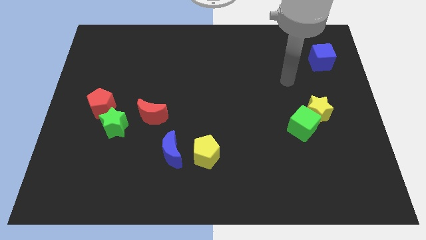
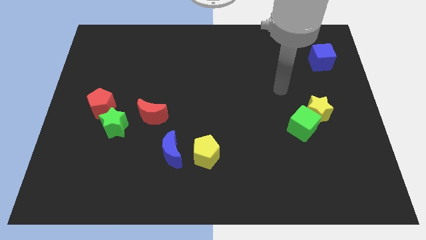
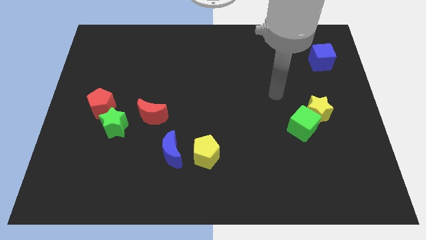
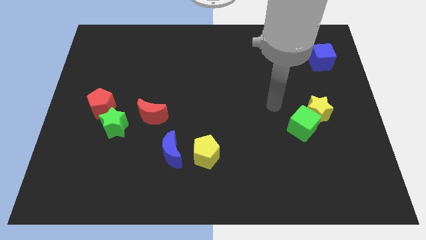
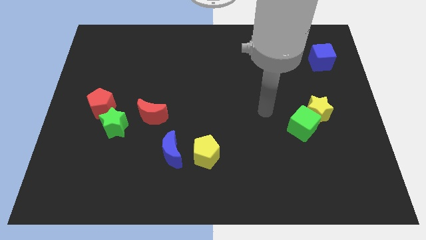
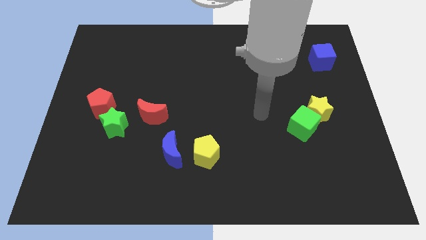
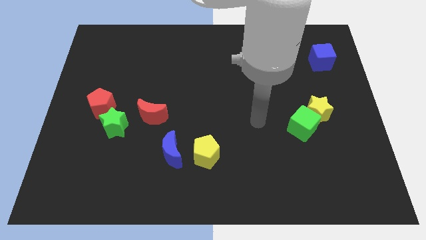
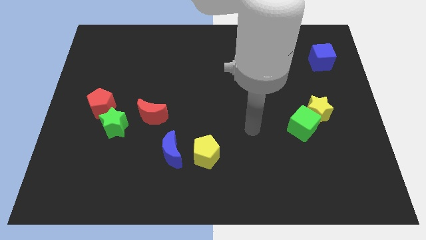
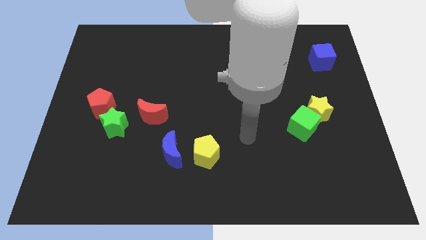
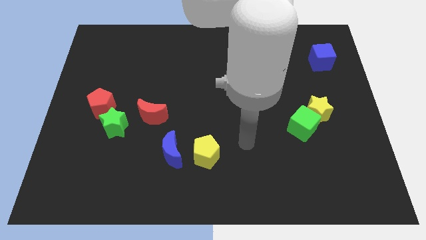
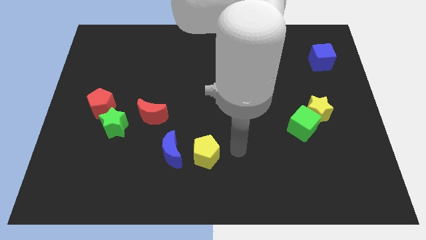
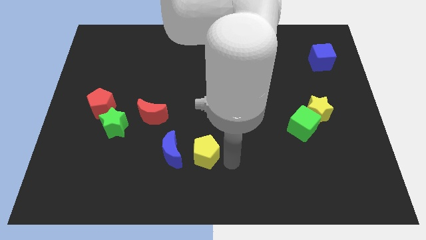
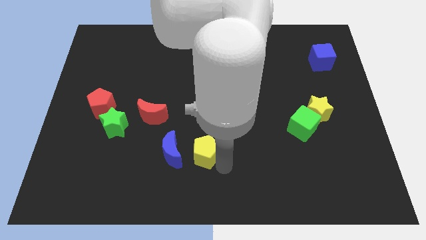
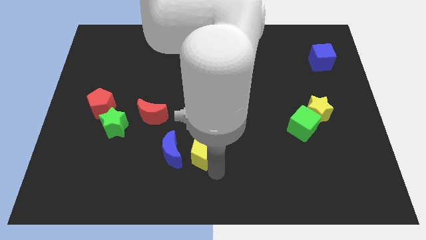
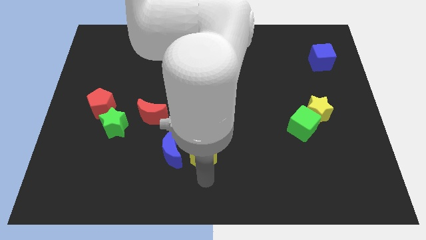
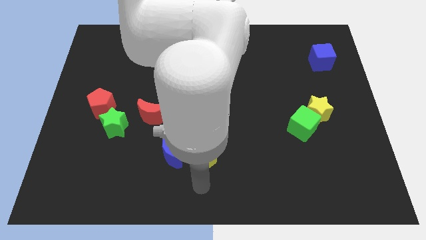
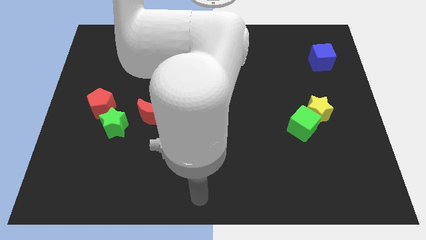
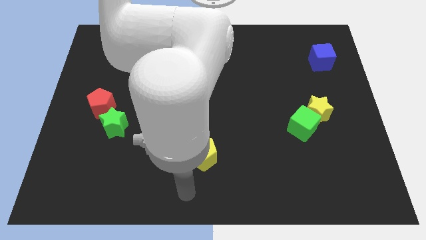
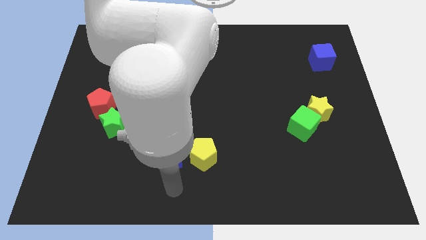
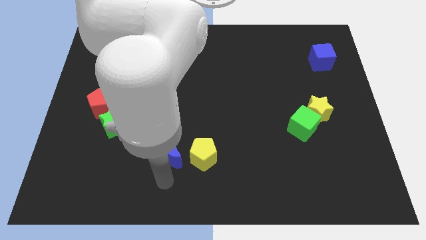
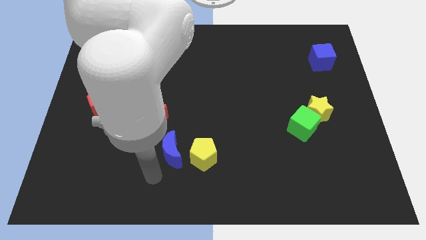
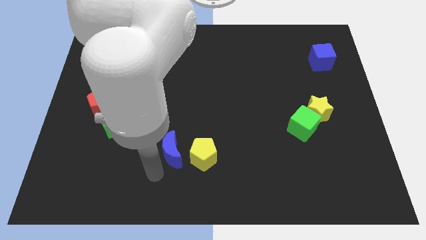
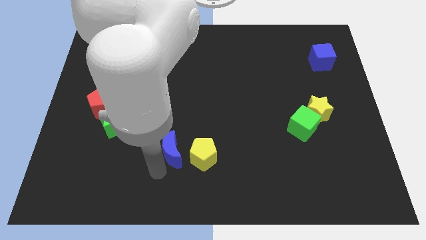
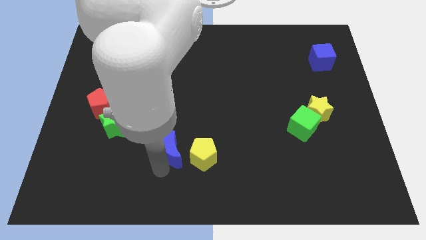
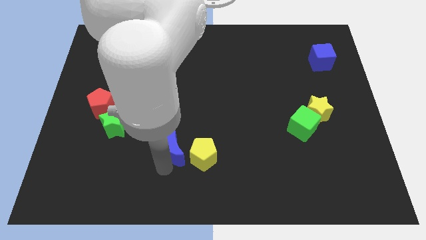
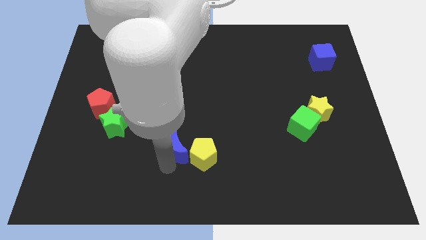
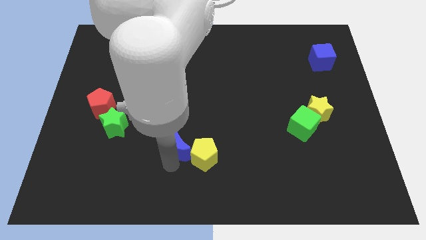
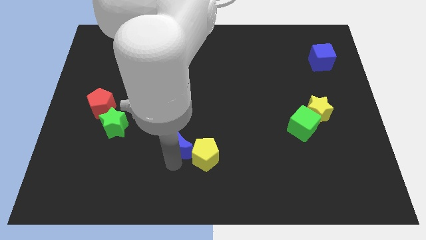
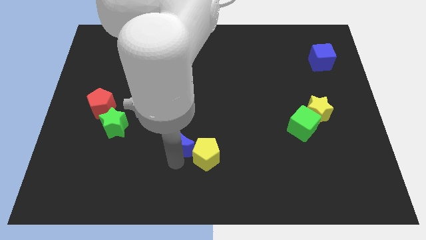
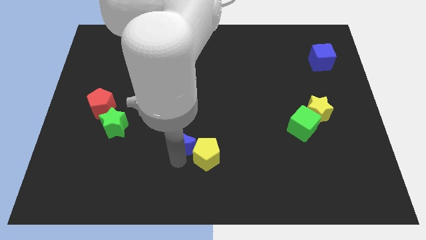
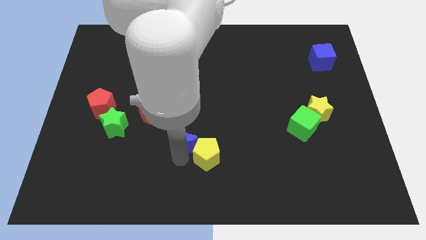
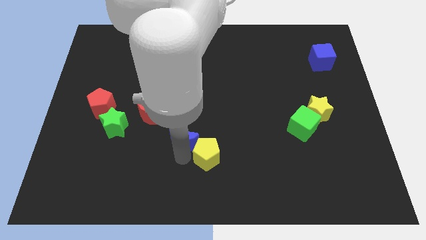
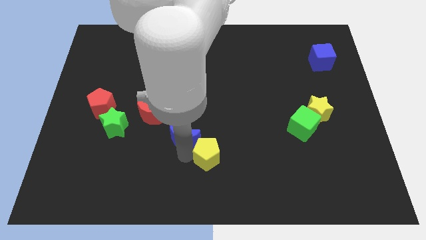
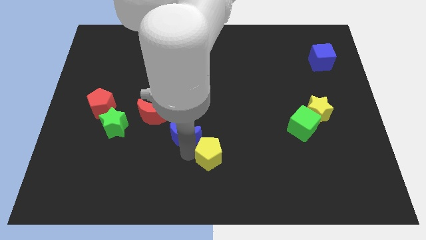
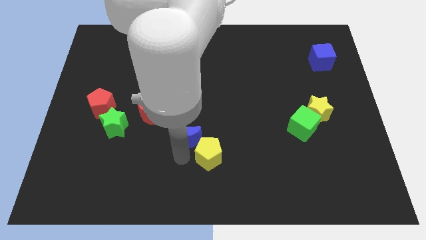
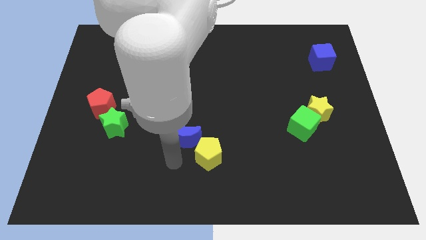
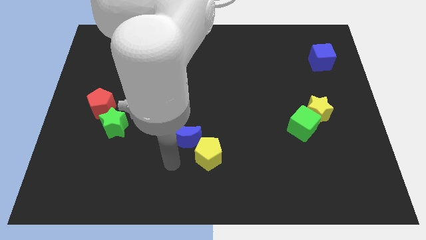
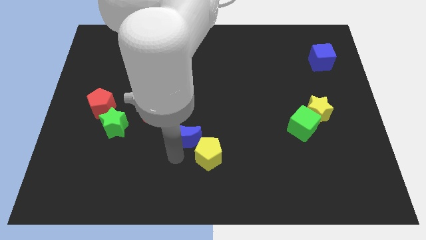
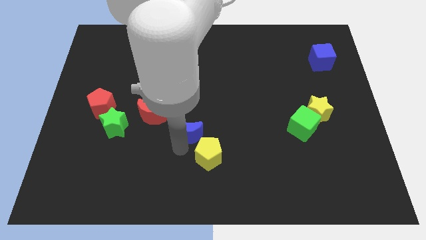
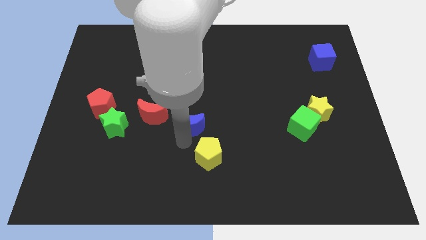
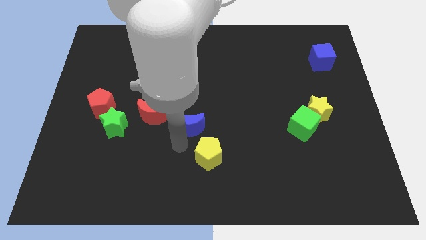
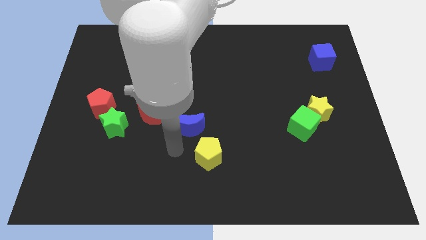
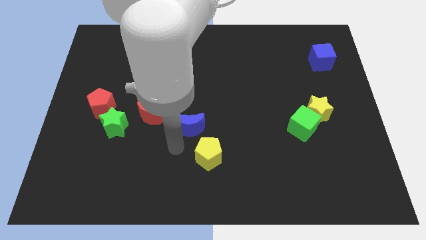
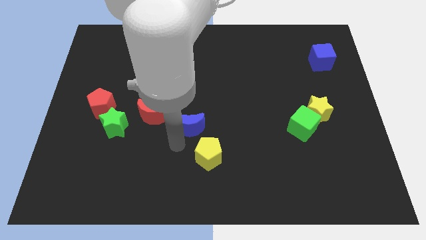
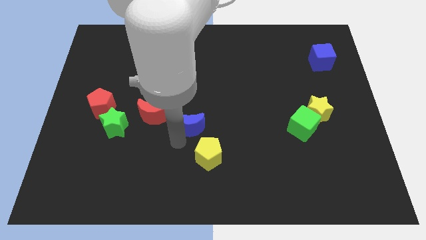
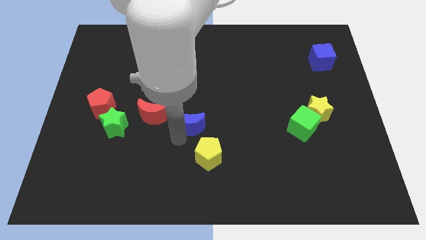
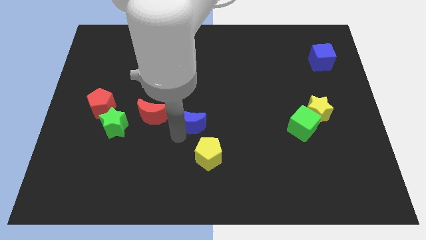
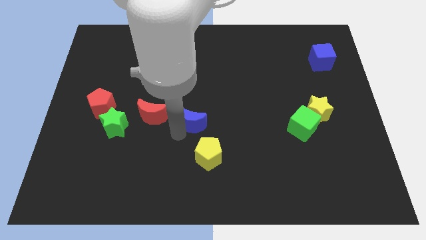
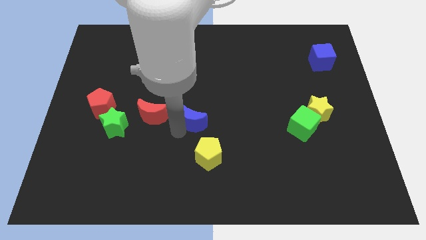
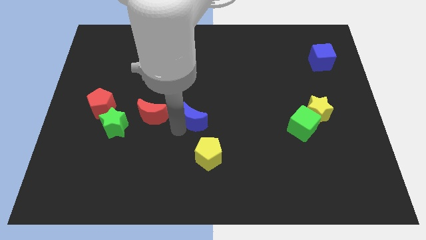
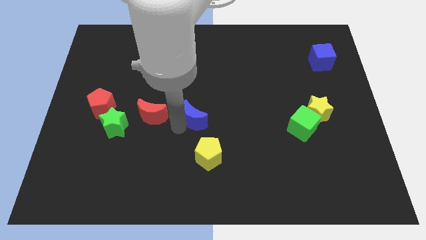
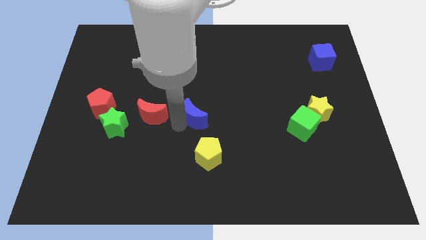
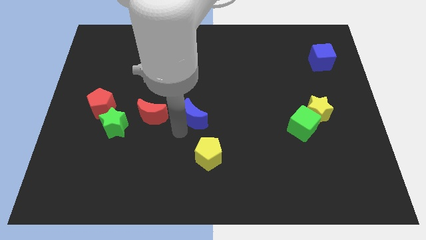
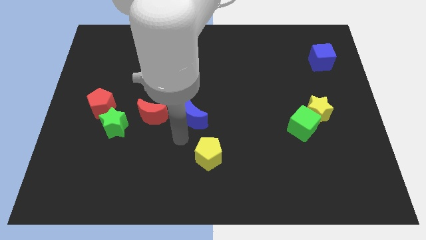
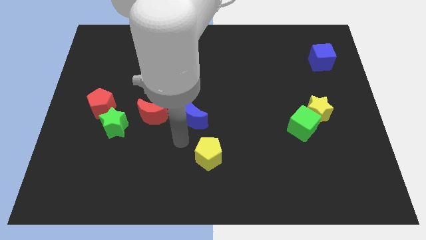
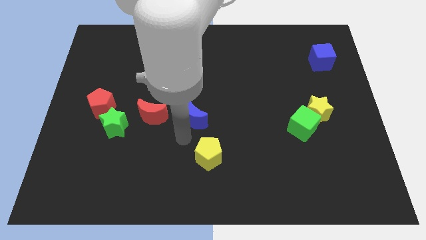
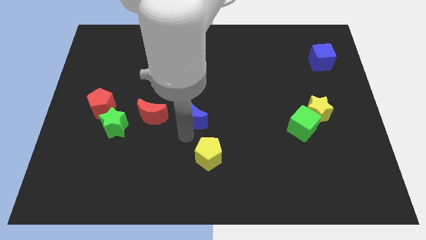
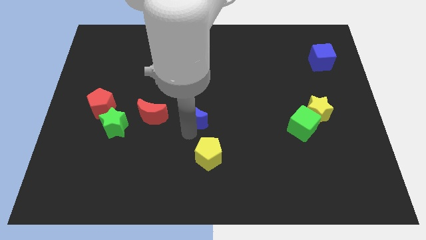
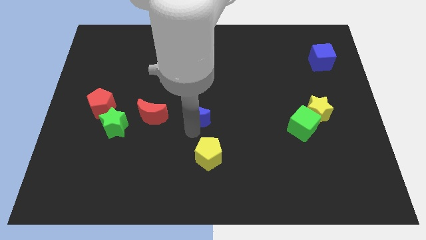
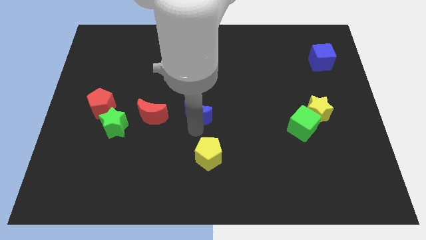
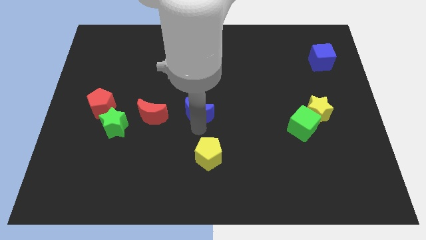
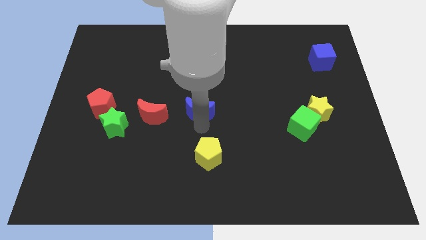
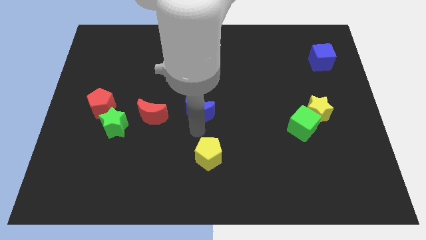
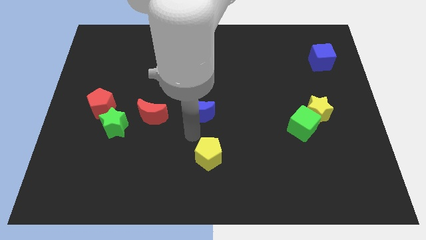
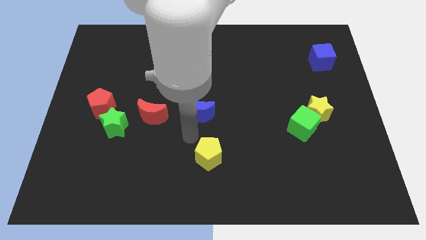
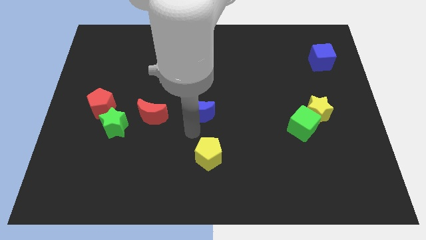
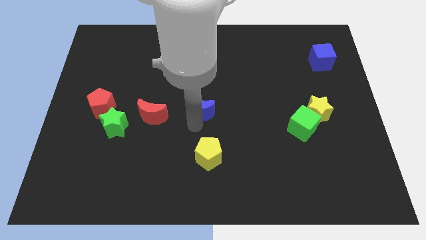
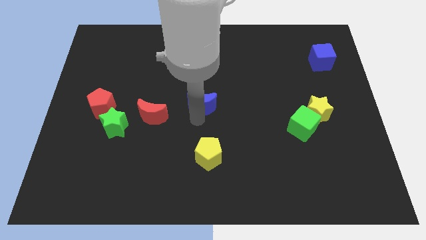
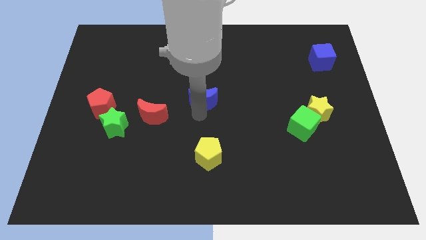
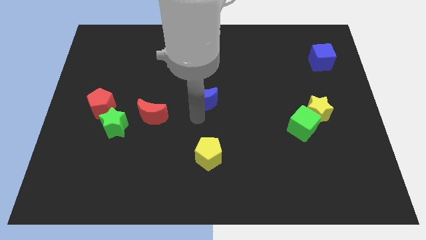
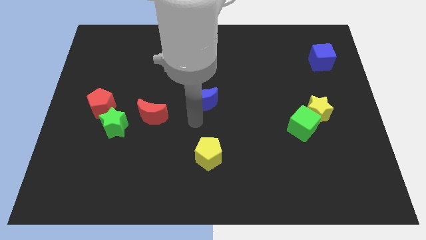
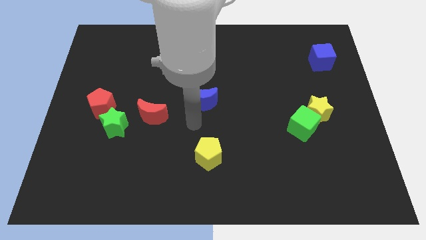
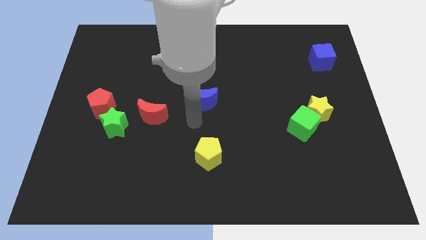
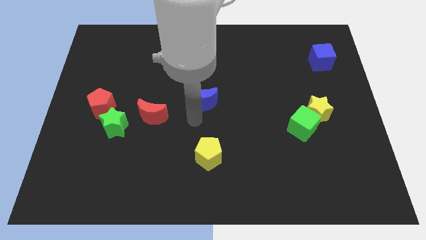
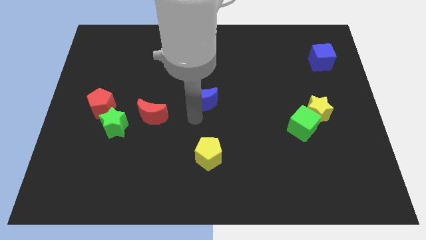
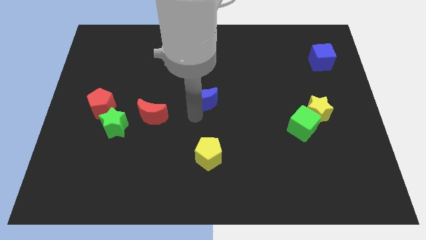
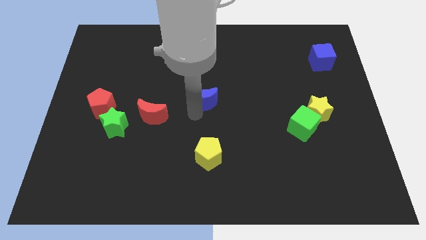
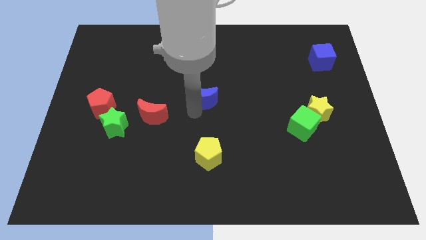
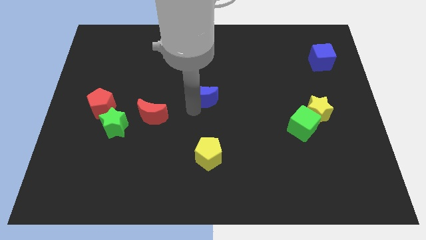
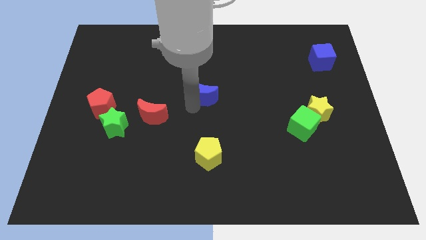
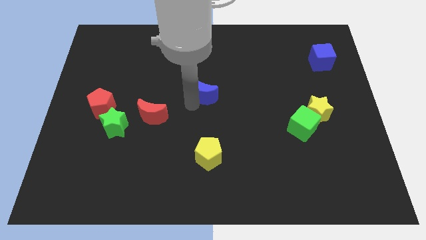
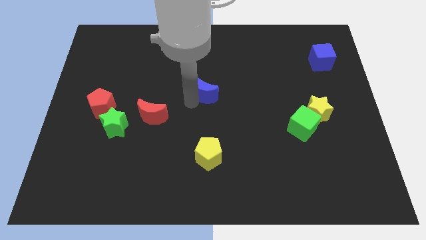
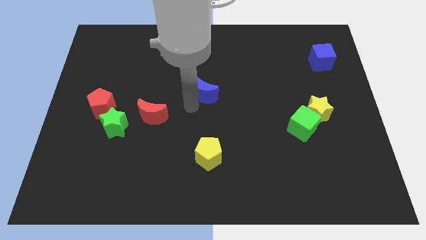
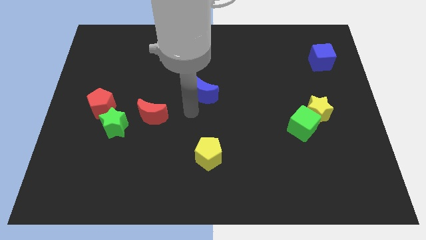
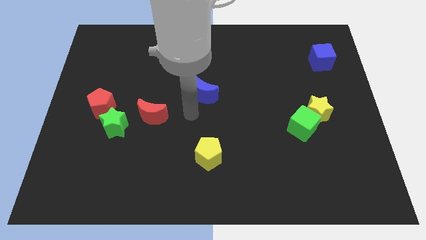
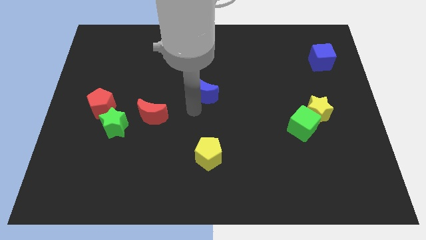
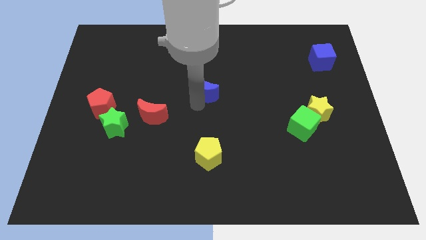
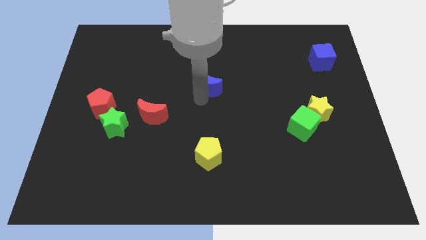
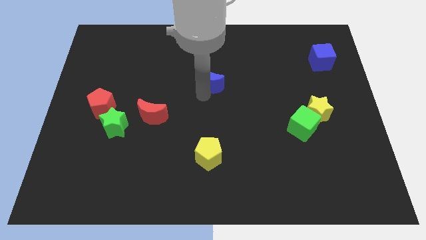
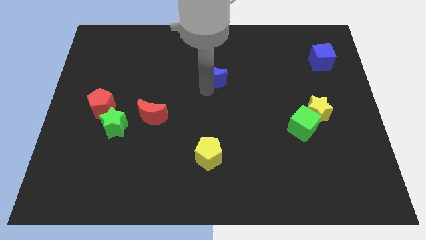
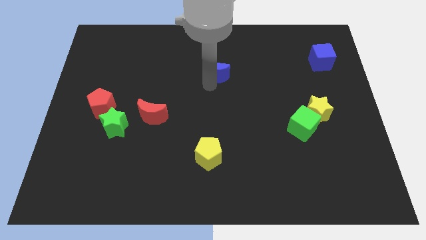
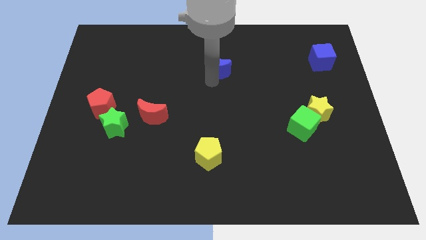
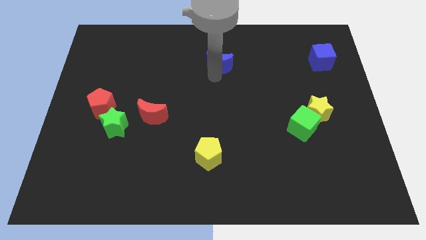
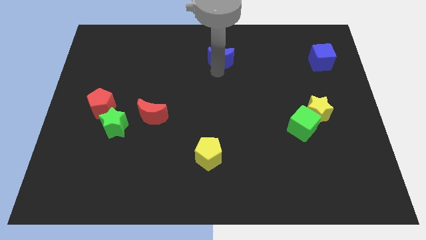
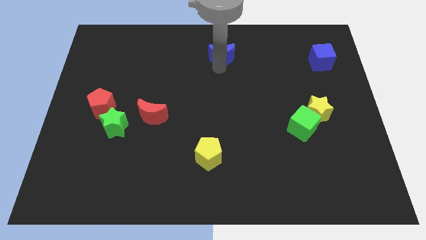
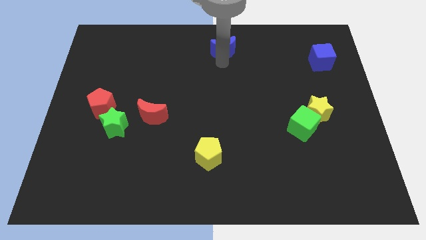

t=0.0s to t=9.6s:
move the blue moon to the top side
